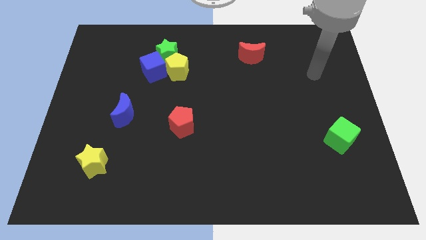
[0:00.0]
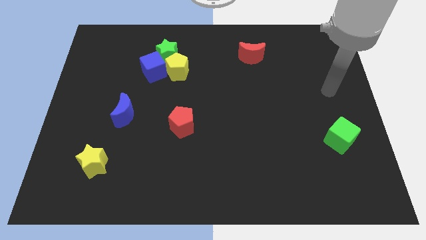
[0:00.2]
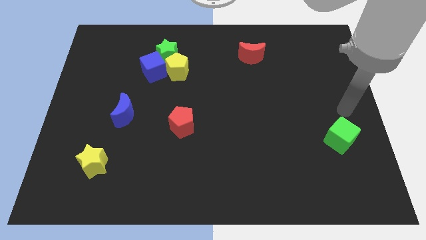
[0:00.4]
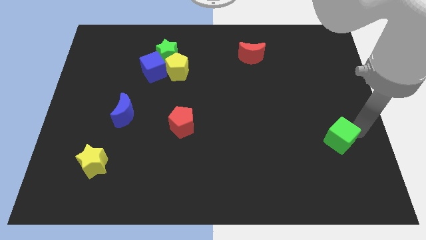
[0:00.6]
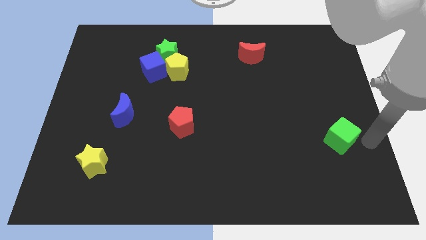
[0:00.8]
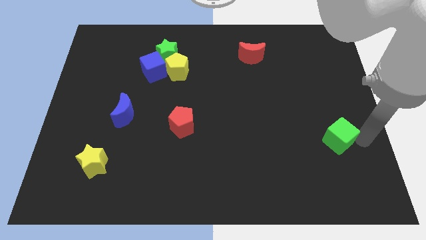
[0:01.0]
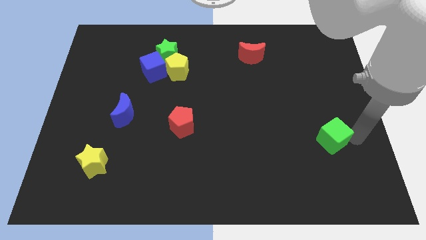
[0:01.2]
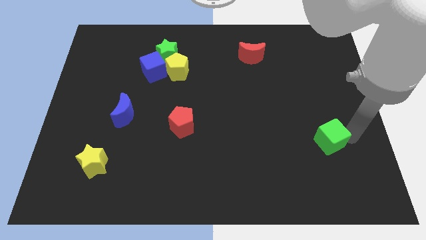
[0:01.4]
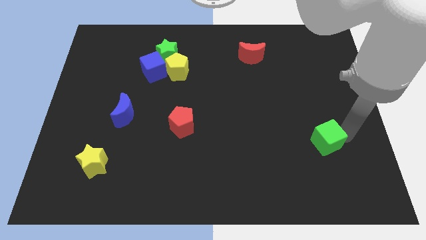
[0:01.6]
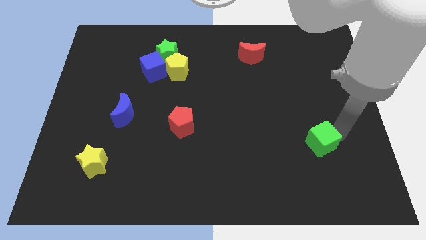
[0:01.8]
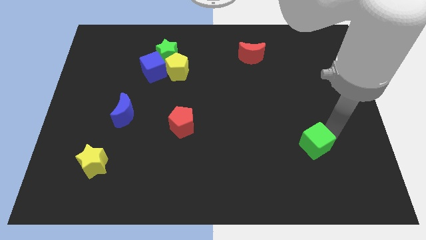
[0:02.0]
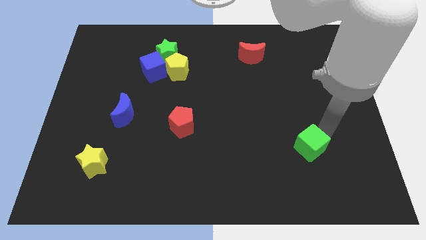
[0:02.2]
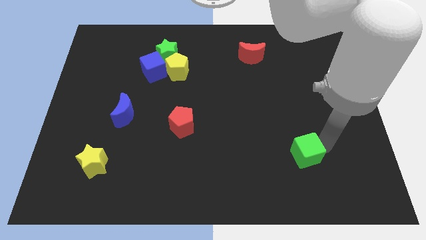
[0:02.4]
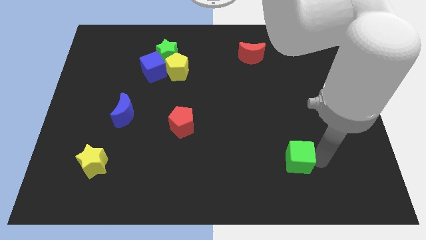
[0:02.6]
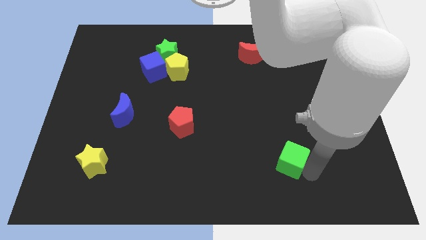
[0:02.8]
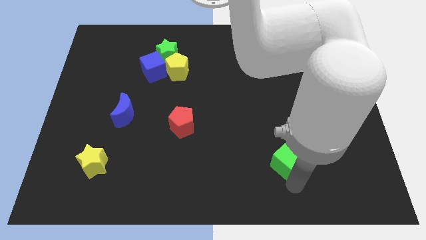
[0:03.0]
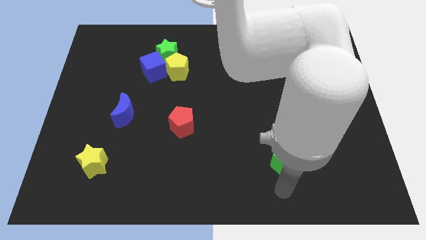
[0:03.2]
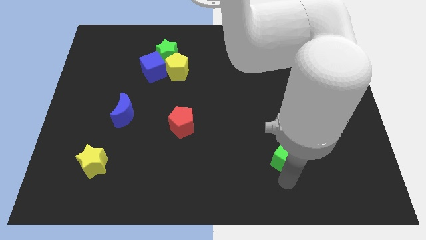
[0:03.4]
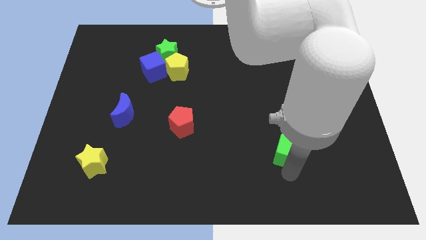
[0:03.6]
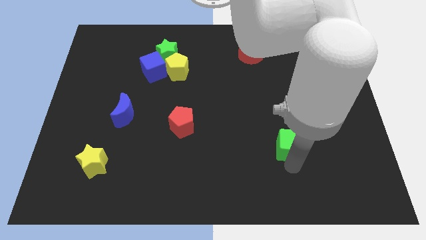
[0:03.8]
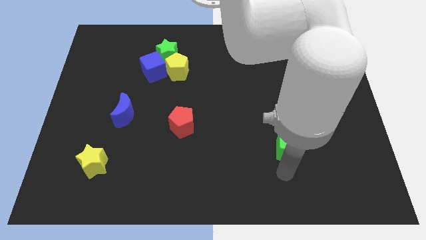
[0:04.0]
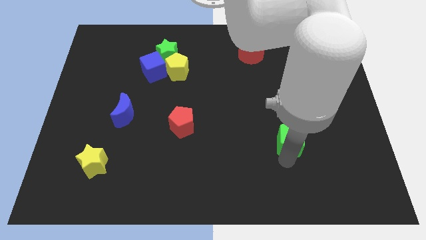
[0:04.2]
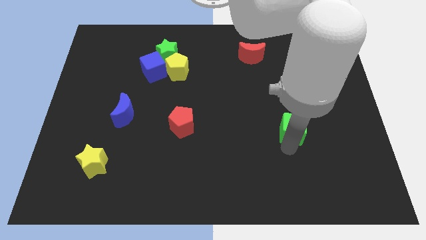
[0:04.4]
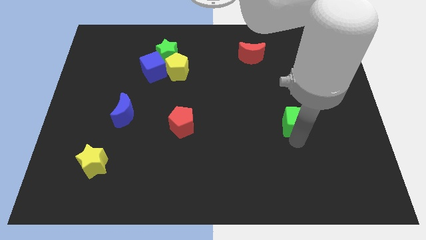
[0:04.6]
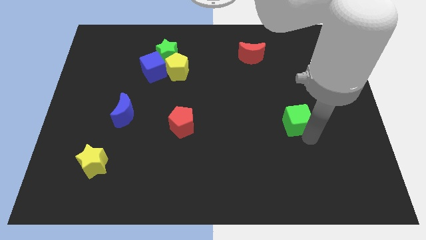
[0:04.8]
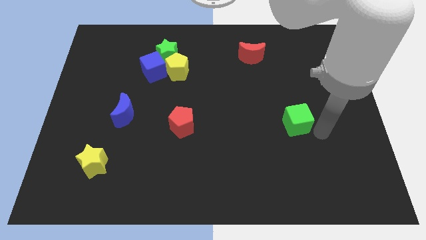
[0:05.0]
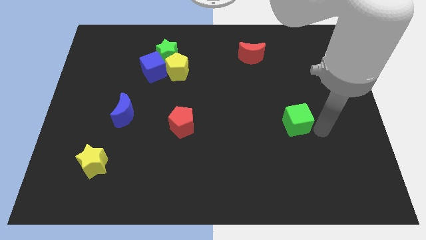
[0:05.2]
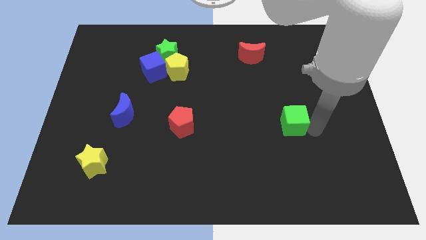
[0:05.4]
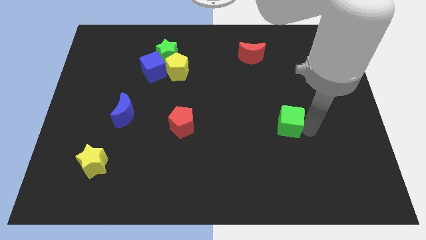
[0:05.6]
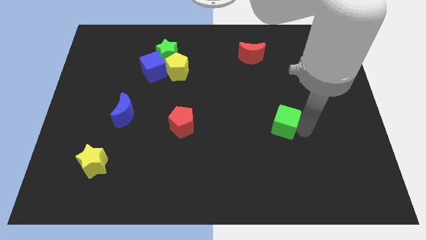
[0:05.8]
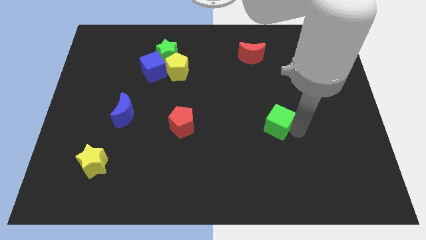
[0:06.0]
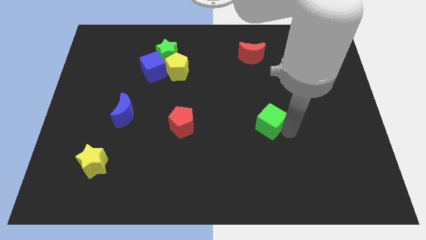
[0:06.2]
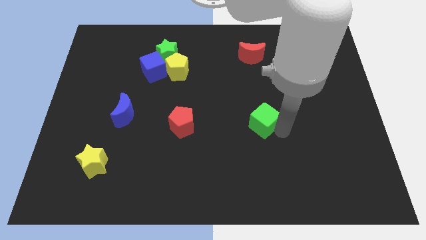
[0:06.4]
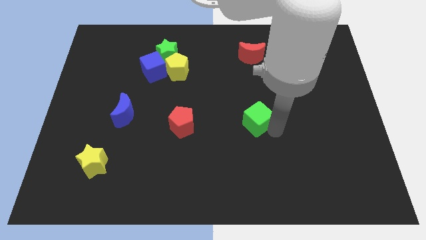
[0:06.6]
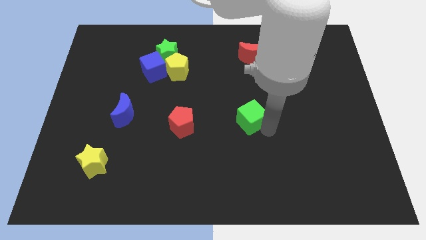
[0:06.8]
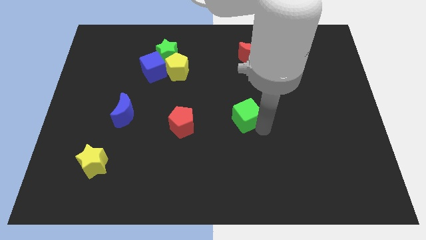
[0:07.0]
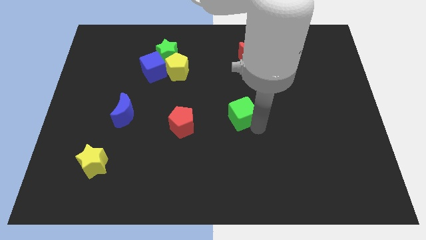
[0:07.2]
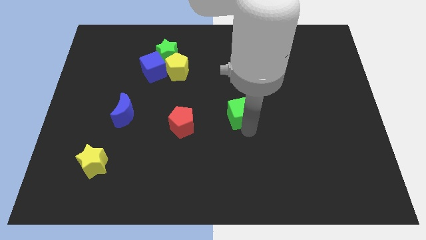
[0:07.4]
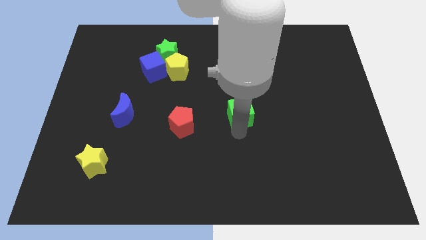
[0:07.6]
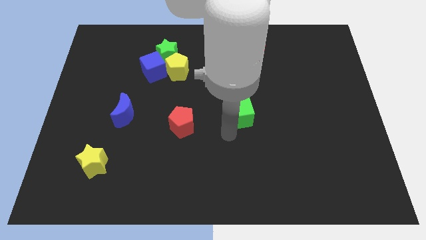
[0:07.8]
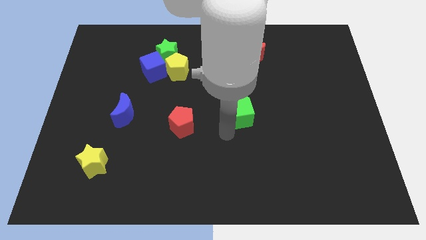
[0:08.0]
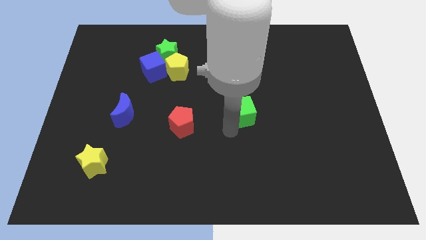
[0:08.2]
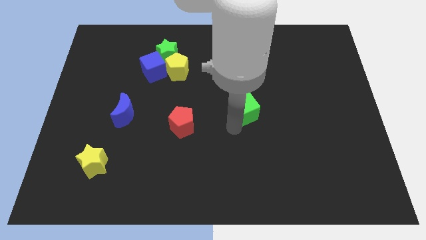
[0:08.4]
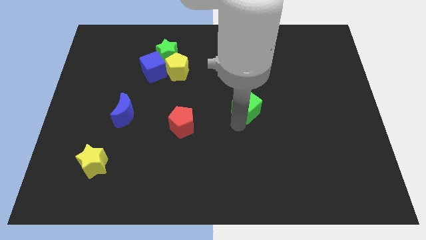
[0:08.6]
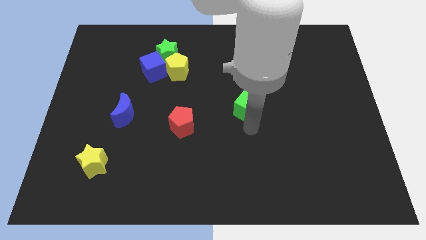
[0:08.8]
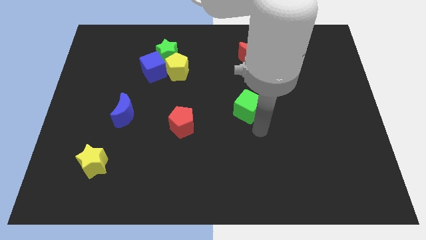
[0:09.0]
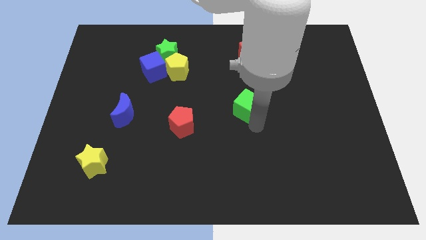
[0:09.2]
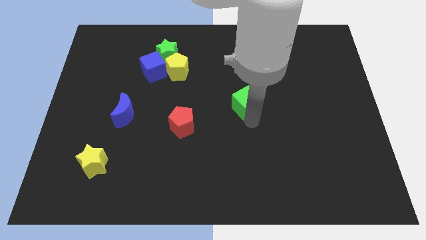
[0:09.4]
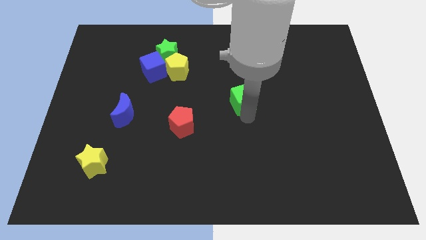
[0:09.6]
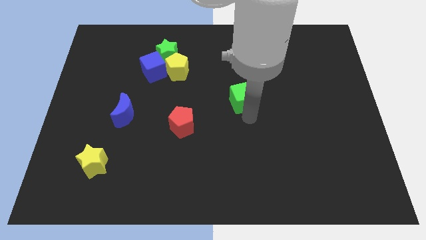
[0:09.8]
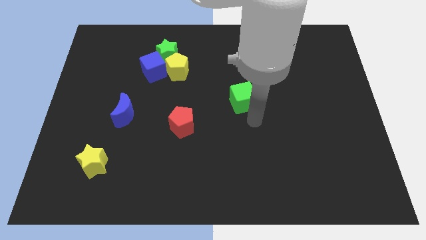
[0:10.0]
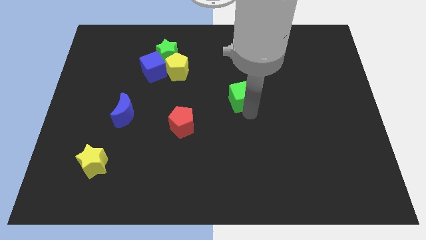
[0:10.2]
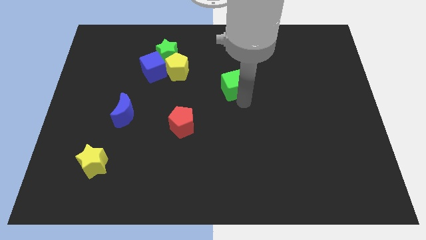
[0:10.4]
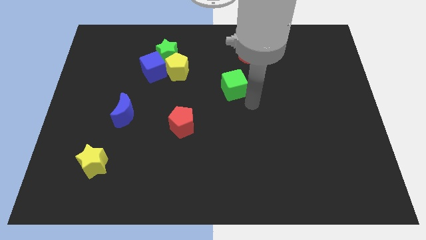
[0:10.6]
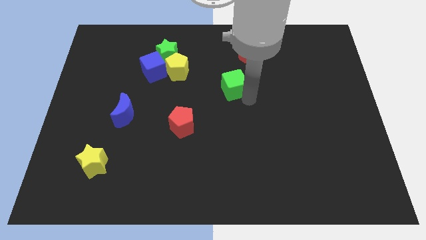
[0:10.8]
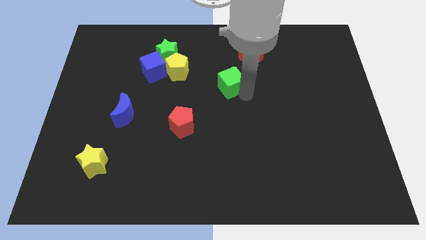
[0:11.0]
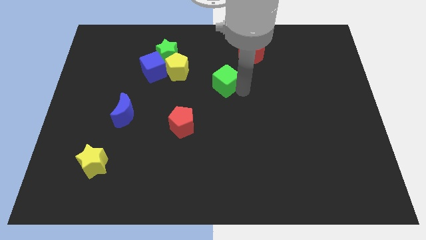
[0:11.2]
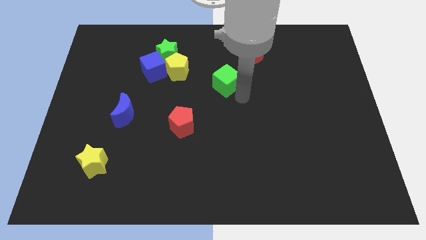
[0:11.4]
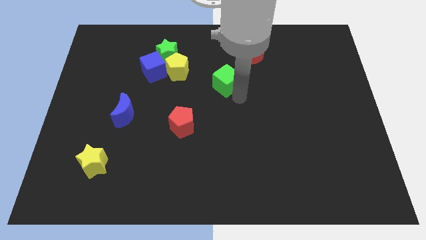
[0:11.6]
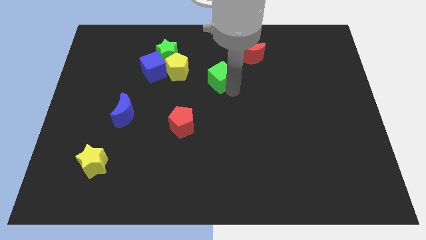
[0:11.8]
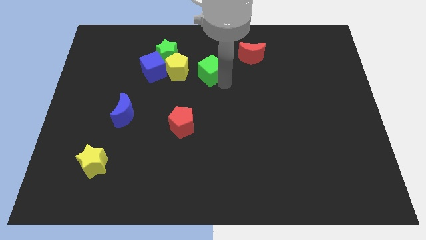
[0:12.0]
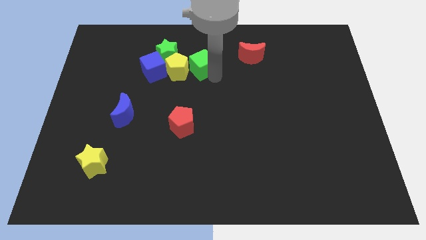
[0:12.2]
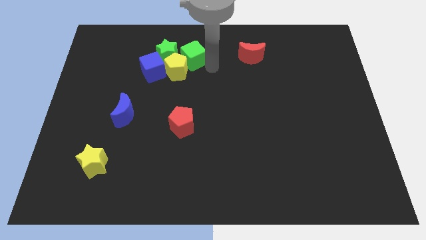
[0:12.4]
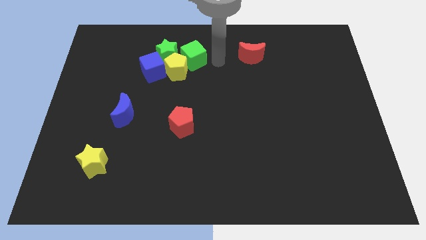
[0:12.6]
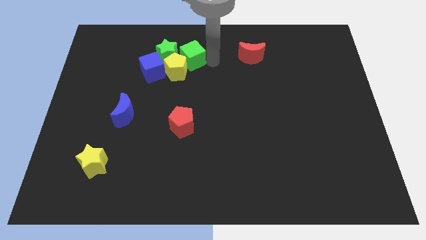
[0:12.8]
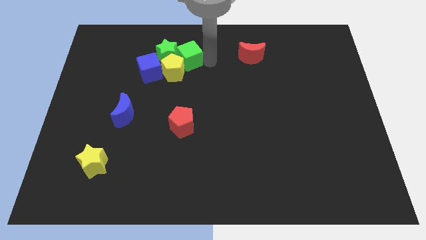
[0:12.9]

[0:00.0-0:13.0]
move the green cube towards the green star

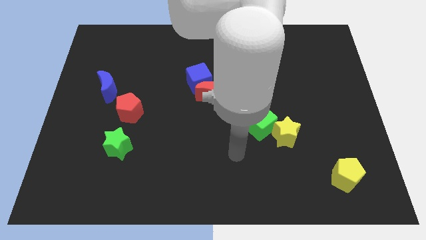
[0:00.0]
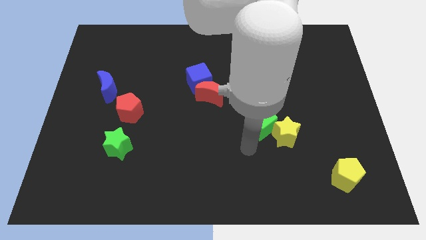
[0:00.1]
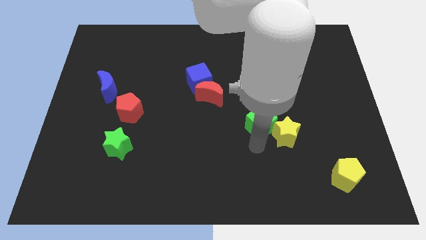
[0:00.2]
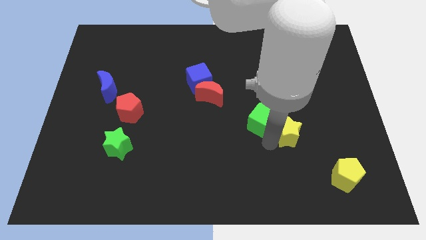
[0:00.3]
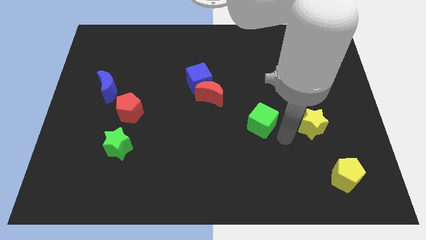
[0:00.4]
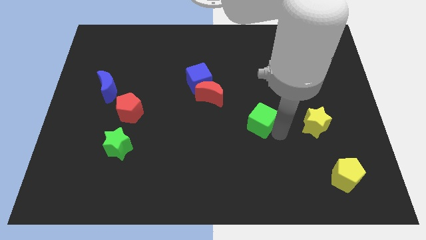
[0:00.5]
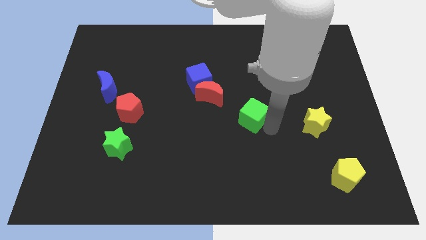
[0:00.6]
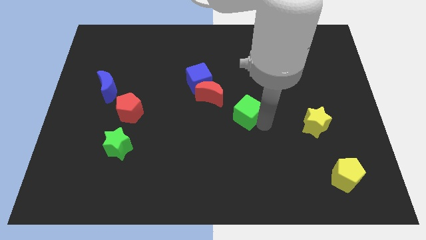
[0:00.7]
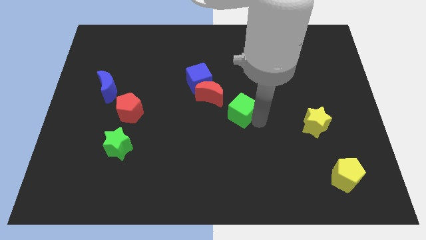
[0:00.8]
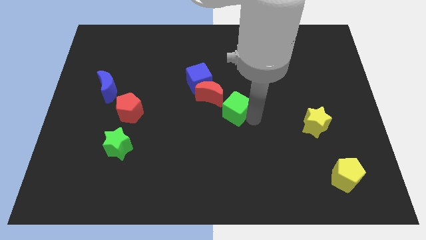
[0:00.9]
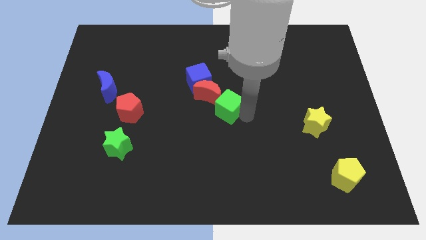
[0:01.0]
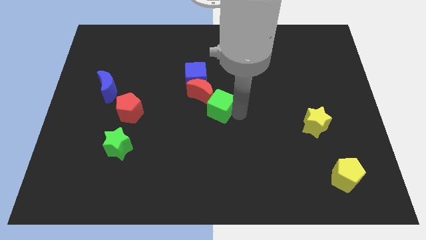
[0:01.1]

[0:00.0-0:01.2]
push the green cube next to the red moon
